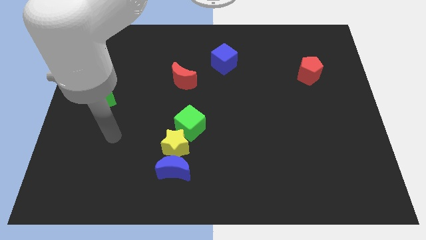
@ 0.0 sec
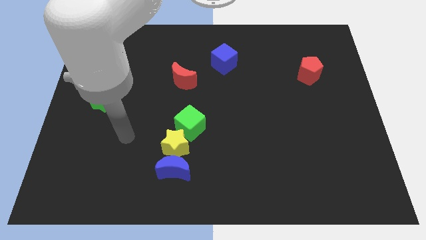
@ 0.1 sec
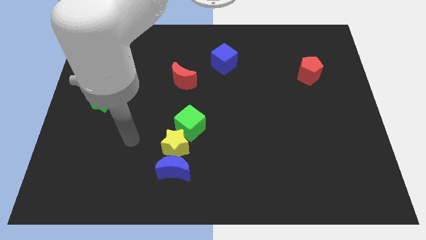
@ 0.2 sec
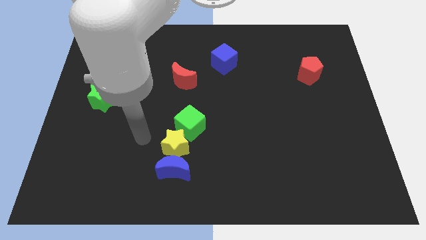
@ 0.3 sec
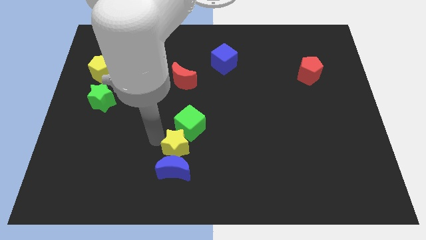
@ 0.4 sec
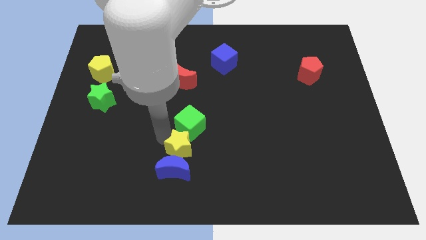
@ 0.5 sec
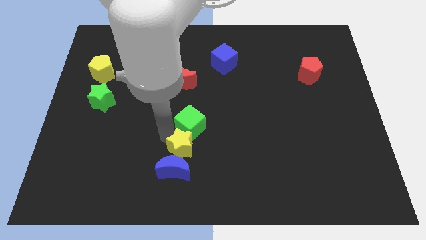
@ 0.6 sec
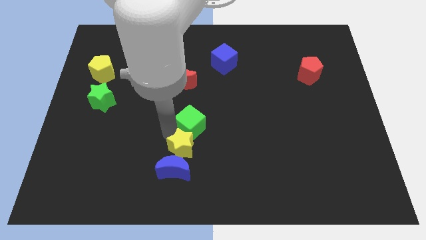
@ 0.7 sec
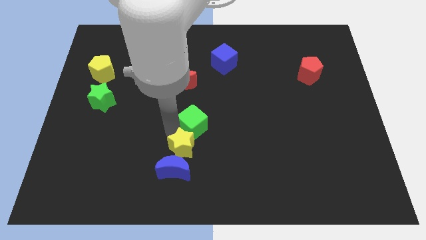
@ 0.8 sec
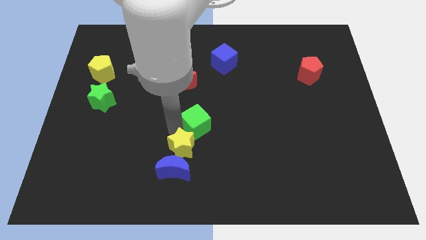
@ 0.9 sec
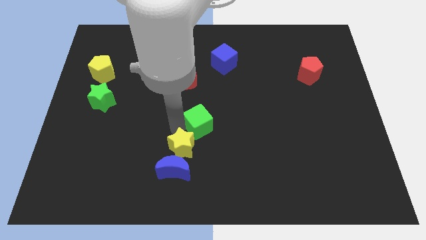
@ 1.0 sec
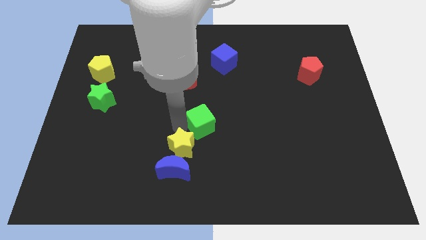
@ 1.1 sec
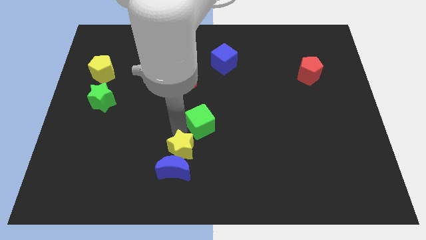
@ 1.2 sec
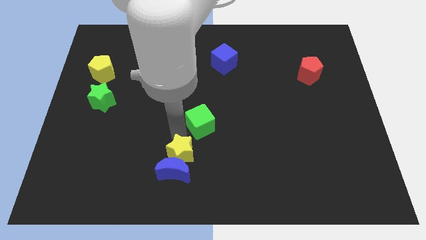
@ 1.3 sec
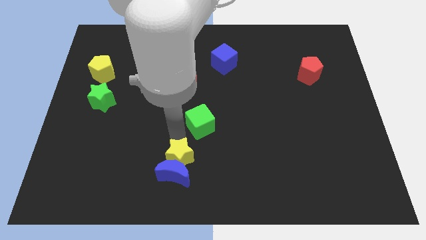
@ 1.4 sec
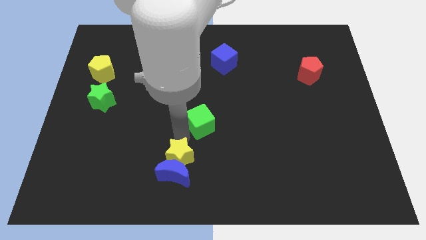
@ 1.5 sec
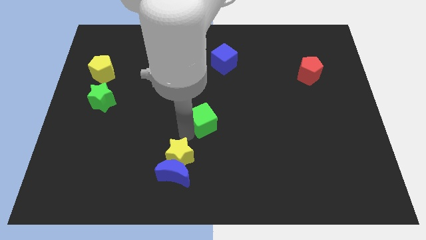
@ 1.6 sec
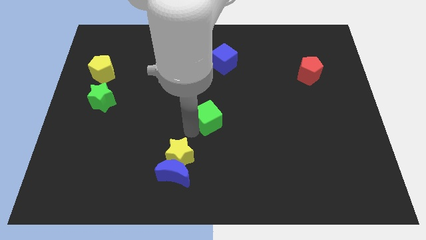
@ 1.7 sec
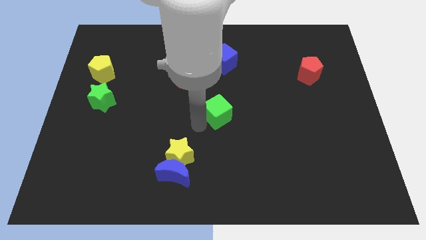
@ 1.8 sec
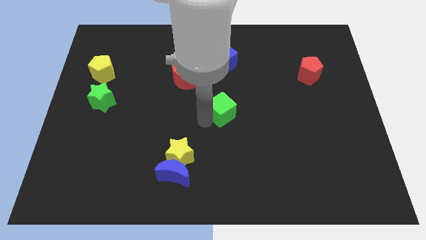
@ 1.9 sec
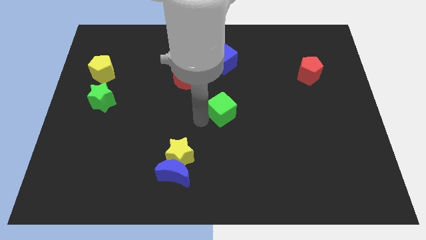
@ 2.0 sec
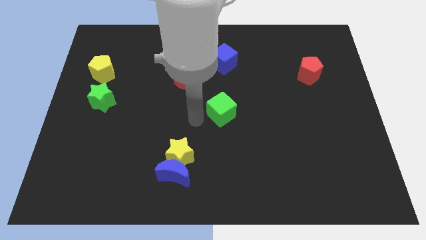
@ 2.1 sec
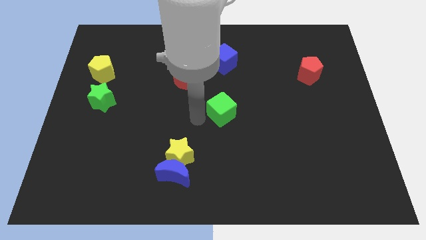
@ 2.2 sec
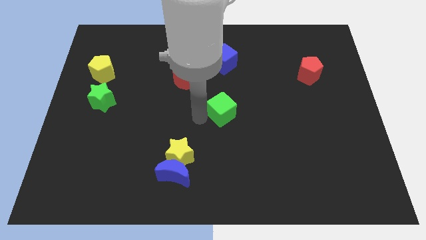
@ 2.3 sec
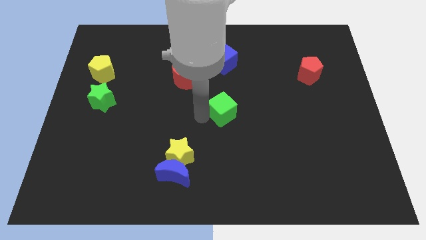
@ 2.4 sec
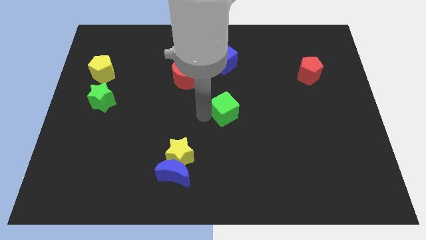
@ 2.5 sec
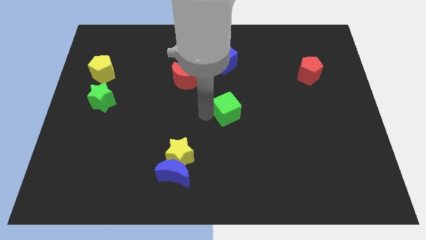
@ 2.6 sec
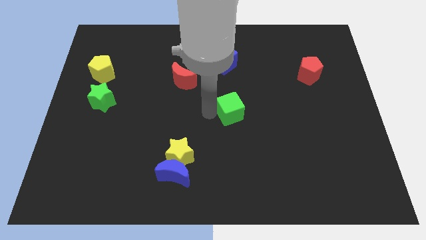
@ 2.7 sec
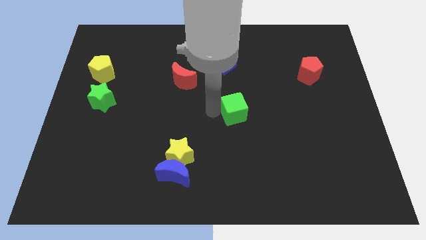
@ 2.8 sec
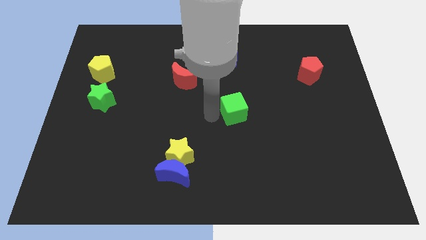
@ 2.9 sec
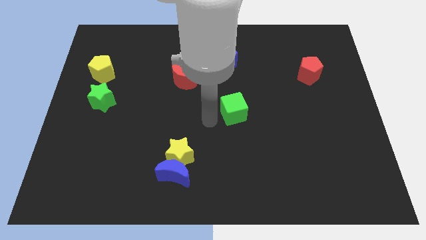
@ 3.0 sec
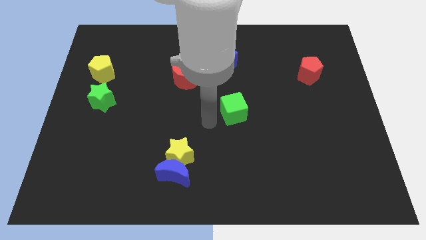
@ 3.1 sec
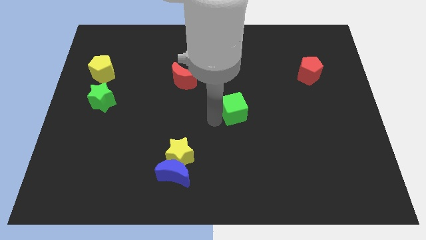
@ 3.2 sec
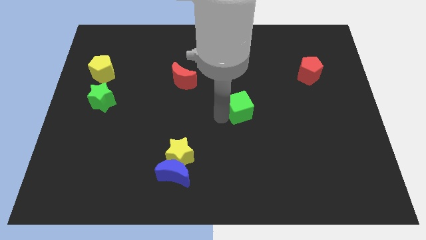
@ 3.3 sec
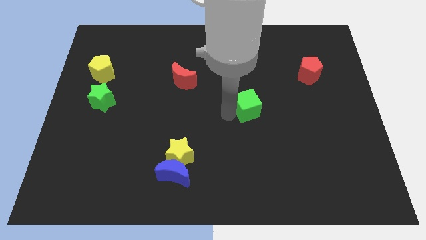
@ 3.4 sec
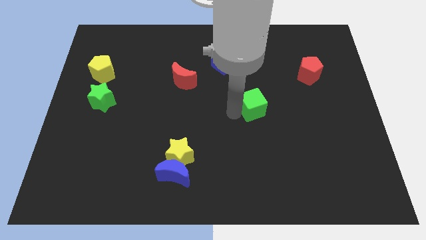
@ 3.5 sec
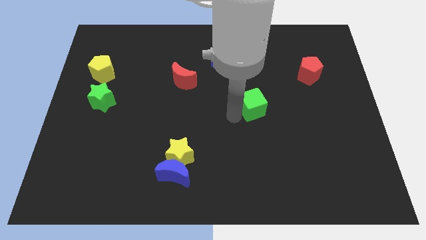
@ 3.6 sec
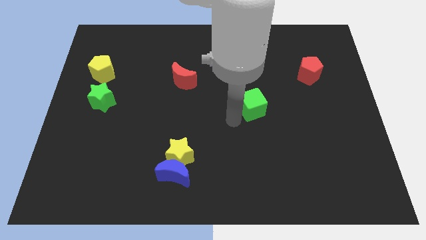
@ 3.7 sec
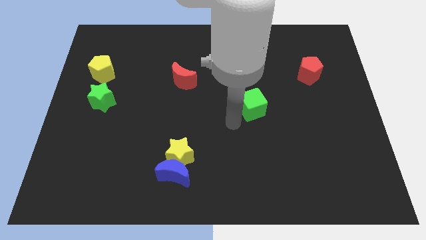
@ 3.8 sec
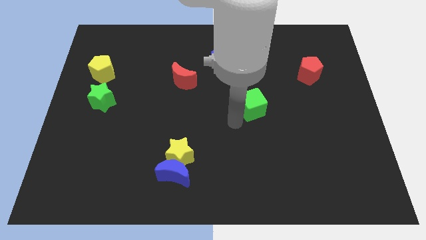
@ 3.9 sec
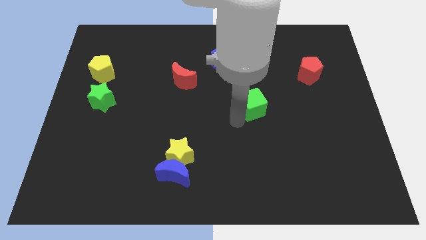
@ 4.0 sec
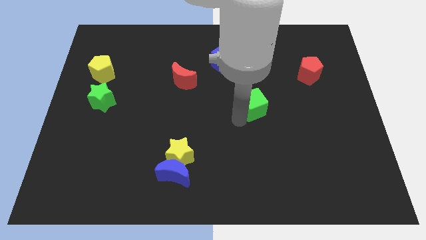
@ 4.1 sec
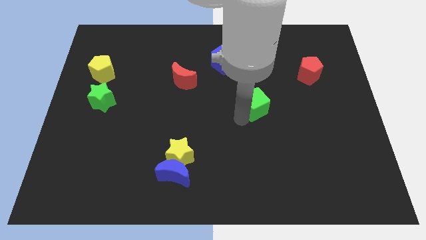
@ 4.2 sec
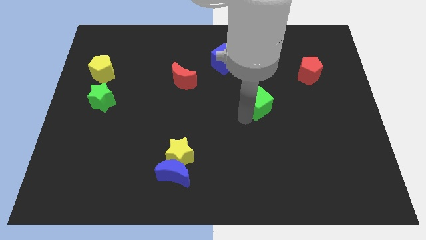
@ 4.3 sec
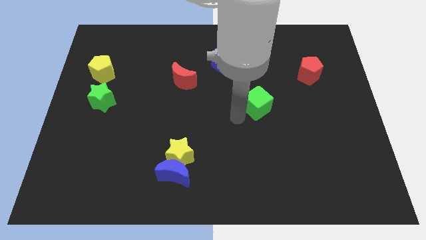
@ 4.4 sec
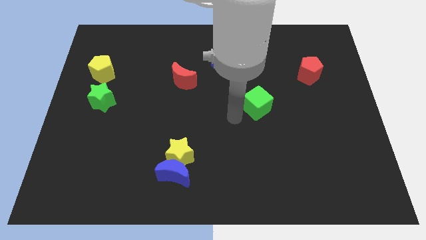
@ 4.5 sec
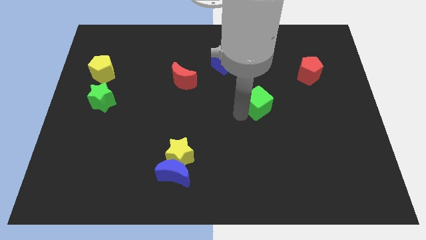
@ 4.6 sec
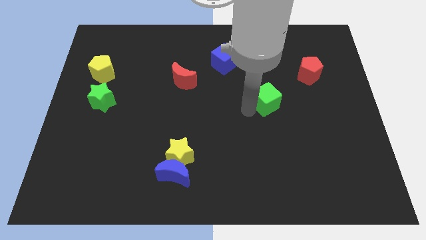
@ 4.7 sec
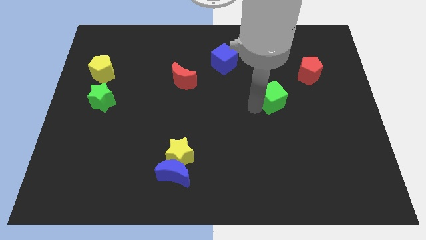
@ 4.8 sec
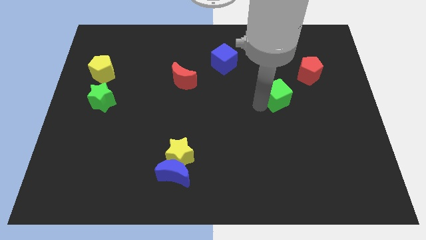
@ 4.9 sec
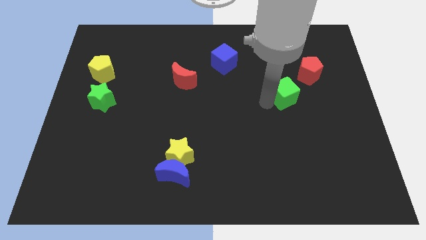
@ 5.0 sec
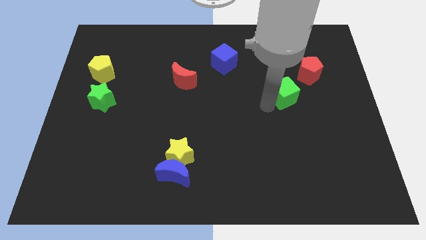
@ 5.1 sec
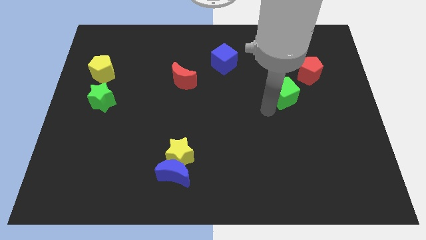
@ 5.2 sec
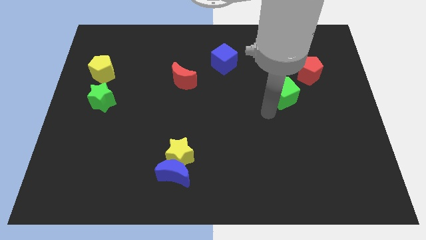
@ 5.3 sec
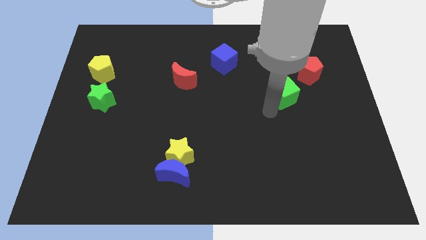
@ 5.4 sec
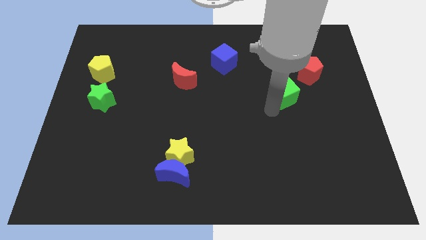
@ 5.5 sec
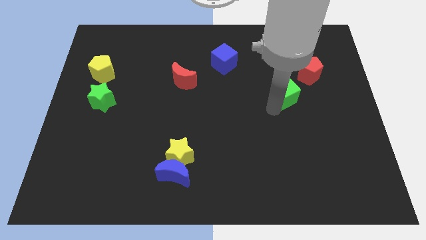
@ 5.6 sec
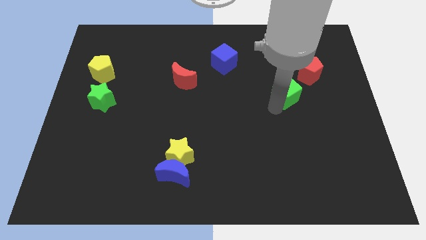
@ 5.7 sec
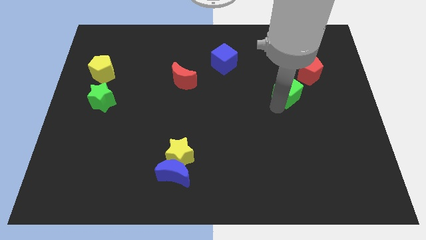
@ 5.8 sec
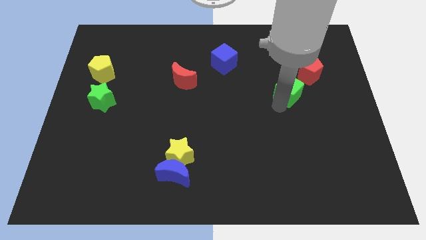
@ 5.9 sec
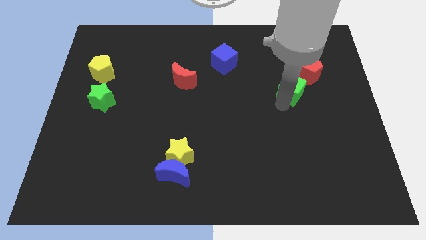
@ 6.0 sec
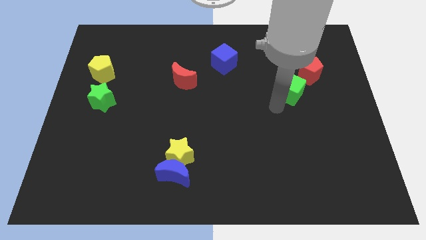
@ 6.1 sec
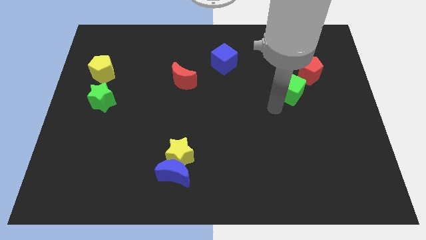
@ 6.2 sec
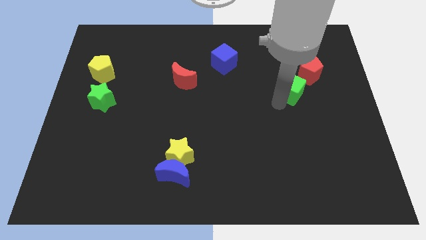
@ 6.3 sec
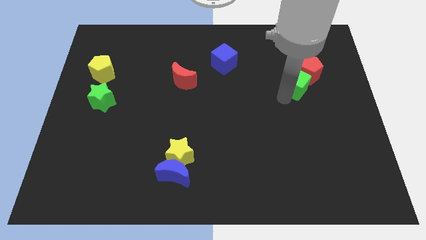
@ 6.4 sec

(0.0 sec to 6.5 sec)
put the green cube to the red pentagon
